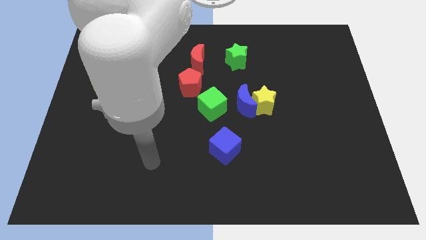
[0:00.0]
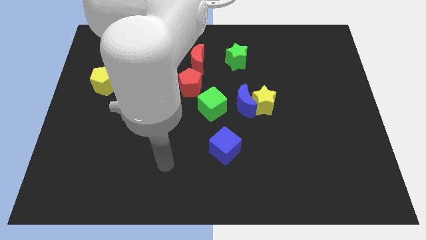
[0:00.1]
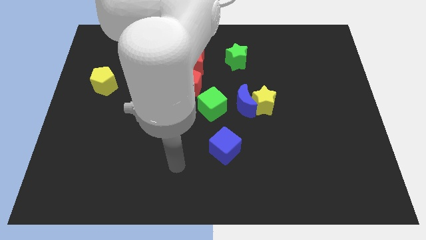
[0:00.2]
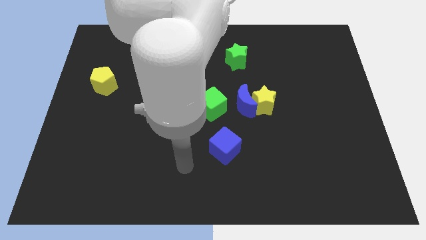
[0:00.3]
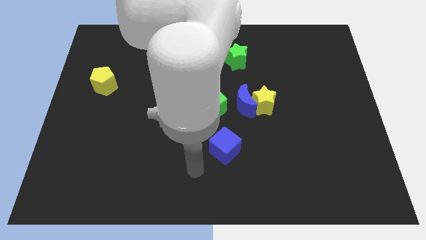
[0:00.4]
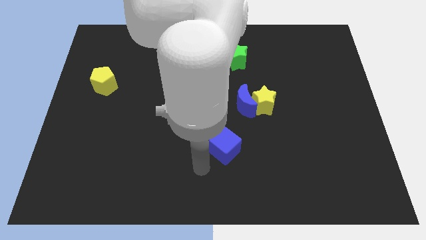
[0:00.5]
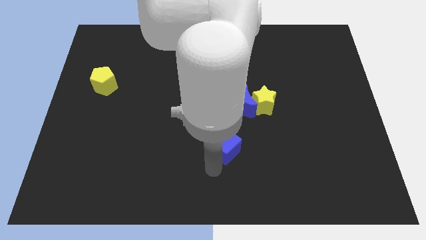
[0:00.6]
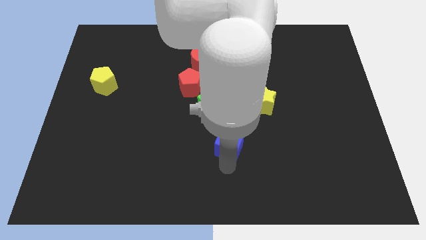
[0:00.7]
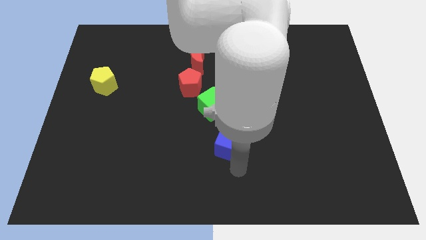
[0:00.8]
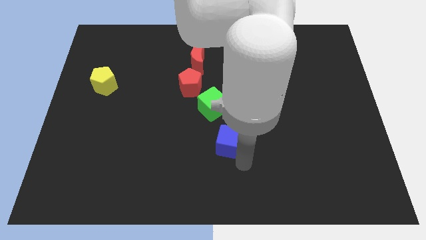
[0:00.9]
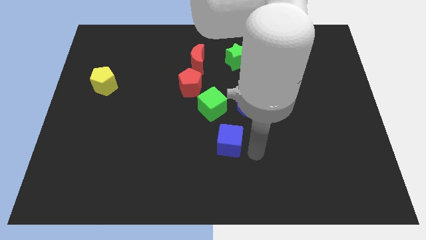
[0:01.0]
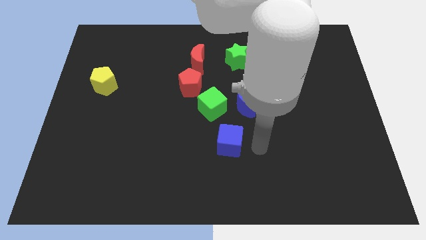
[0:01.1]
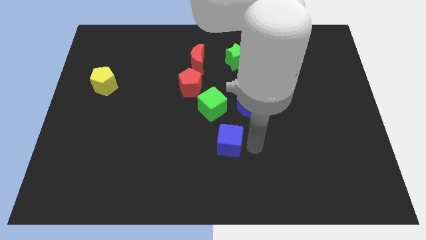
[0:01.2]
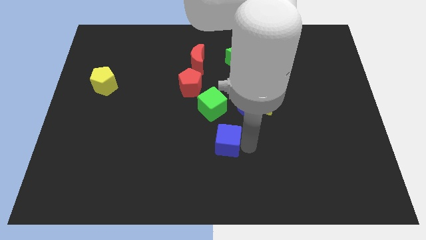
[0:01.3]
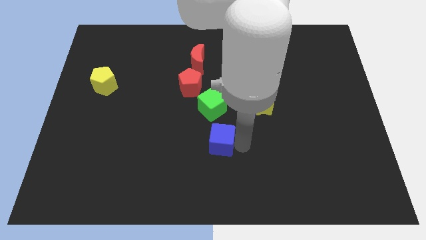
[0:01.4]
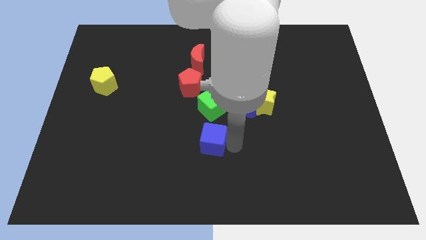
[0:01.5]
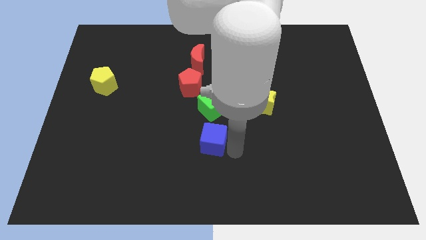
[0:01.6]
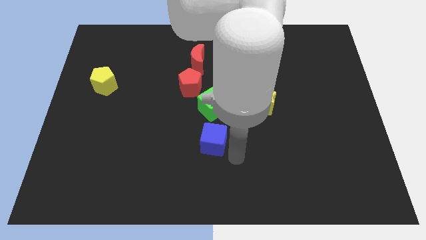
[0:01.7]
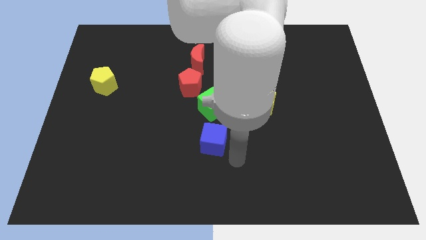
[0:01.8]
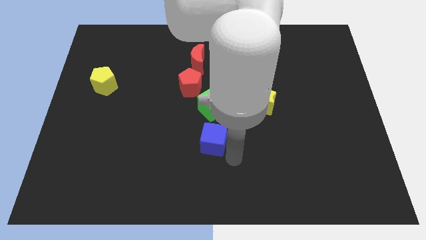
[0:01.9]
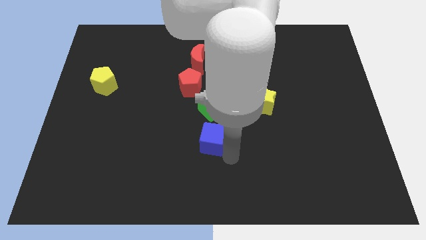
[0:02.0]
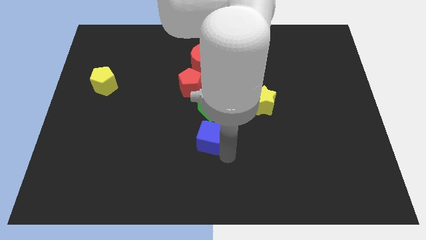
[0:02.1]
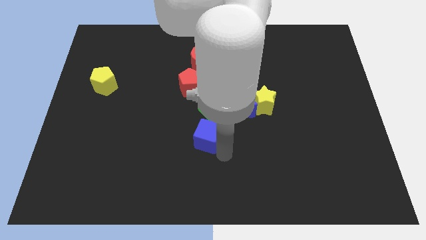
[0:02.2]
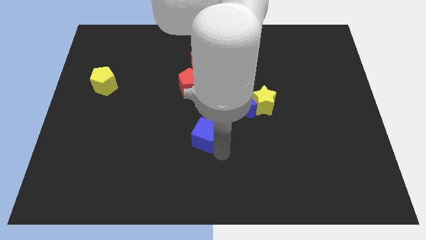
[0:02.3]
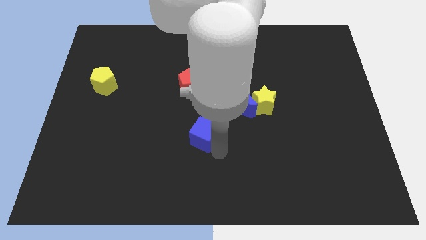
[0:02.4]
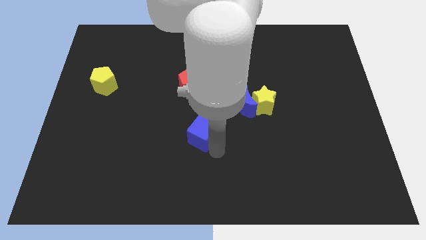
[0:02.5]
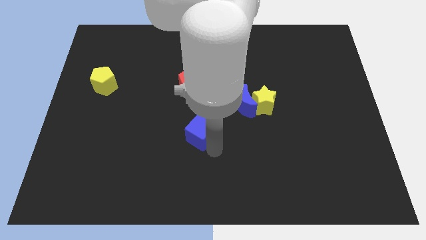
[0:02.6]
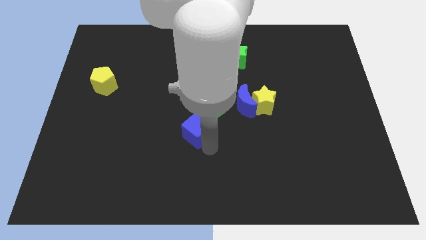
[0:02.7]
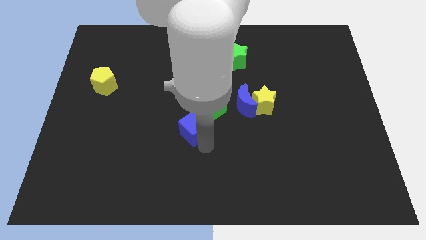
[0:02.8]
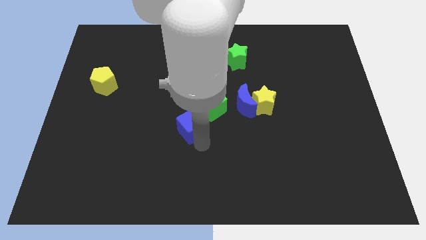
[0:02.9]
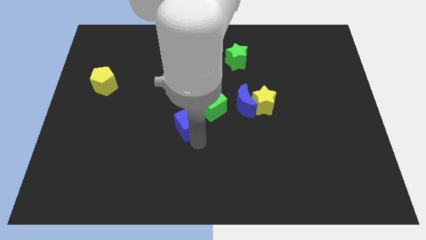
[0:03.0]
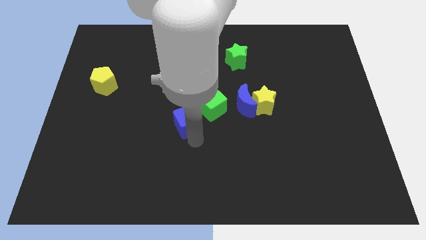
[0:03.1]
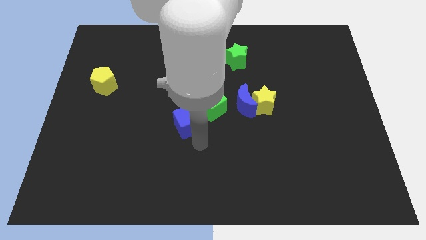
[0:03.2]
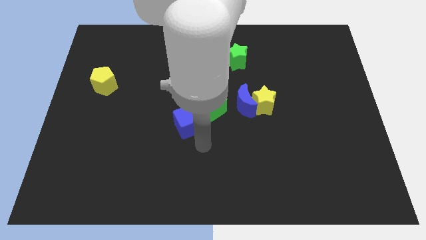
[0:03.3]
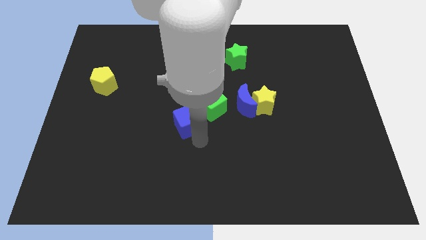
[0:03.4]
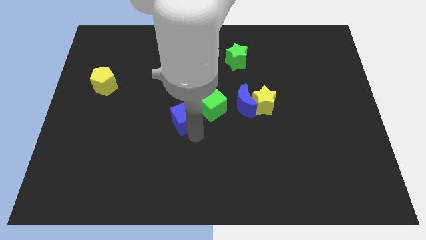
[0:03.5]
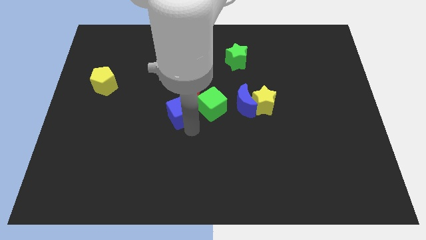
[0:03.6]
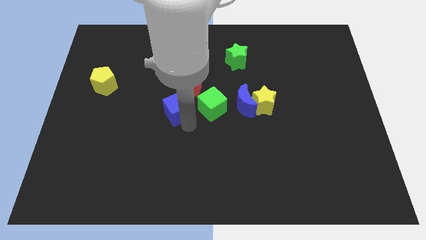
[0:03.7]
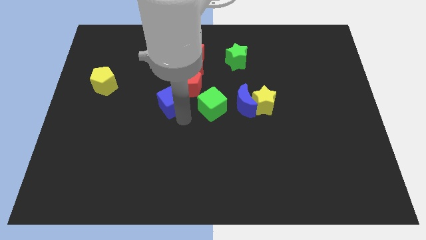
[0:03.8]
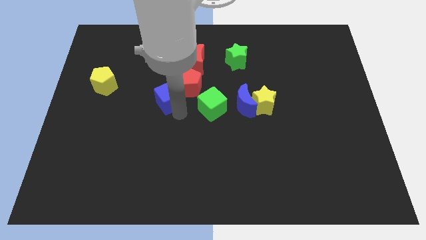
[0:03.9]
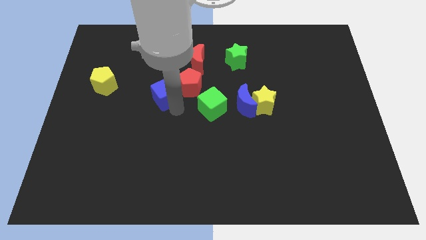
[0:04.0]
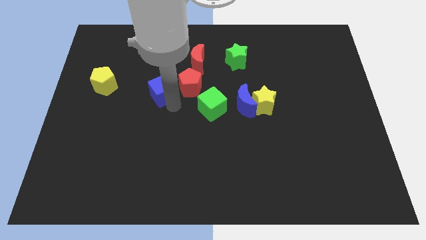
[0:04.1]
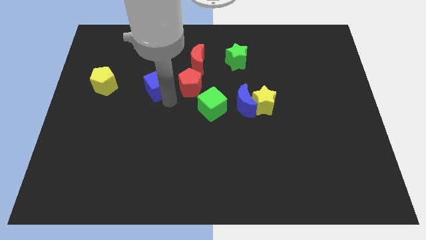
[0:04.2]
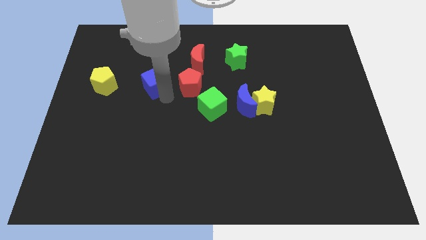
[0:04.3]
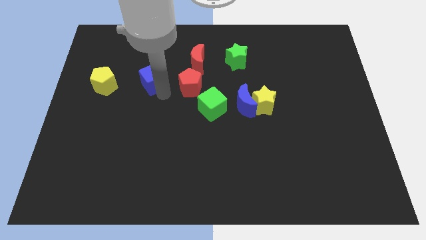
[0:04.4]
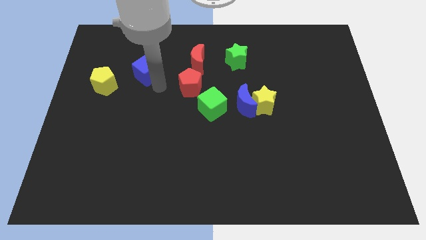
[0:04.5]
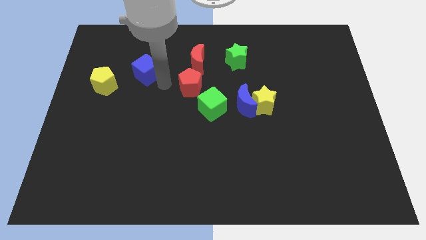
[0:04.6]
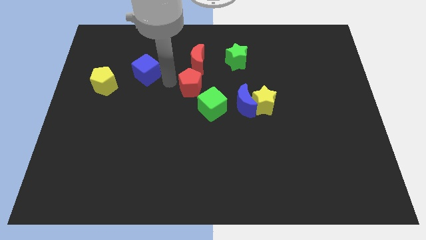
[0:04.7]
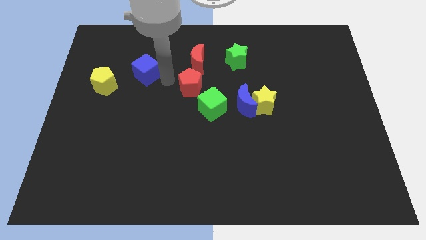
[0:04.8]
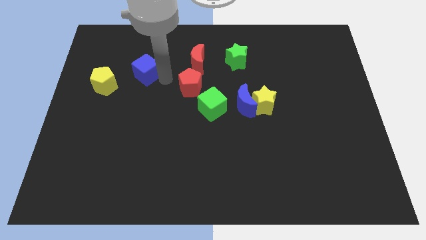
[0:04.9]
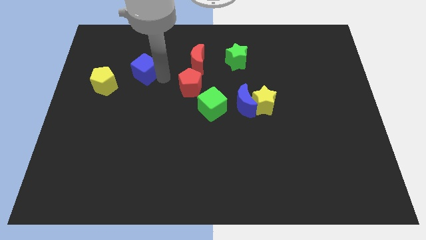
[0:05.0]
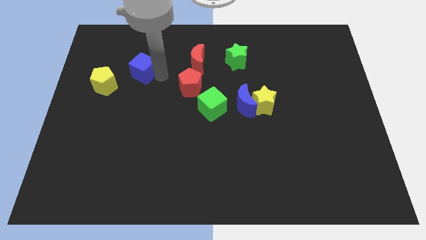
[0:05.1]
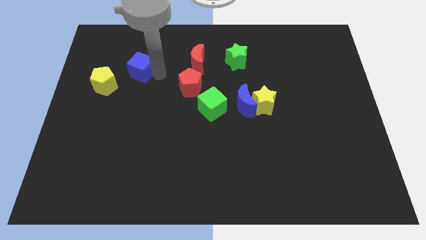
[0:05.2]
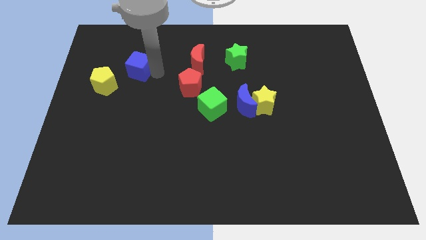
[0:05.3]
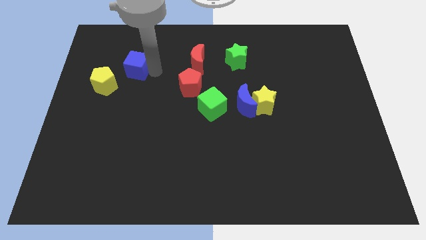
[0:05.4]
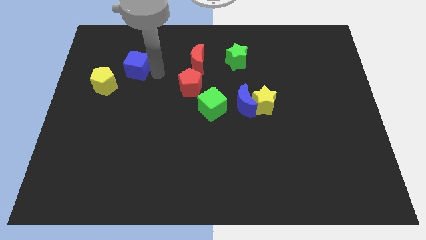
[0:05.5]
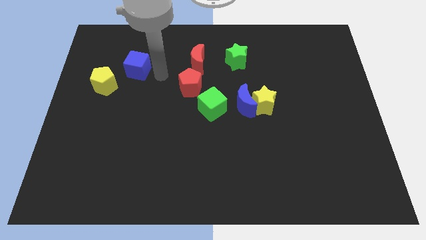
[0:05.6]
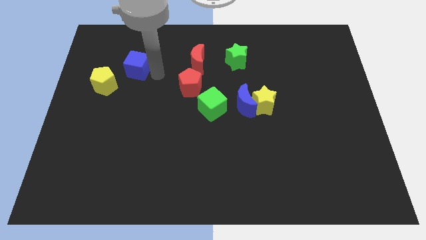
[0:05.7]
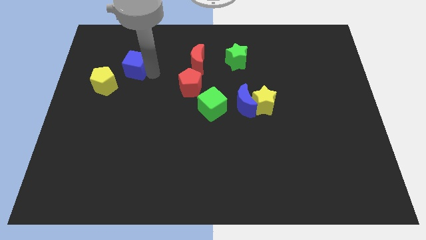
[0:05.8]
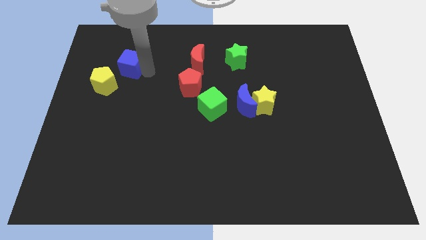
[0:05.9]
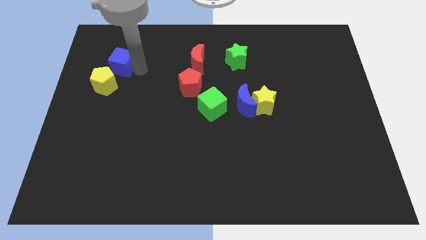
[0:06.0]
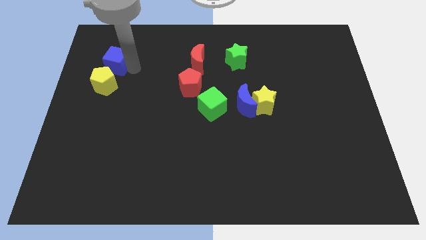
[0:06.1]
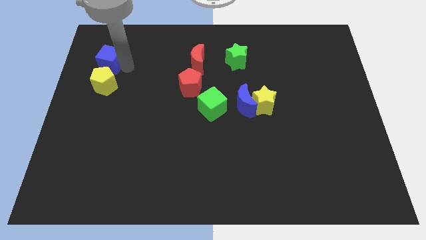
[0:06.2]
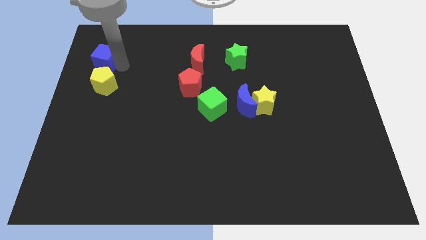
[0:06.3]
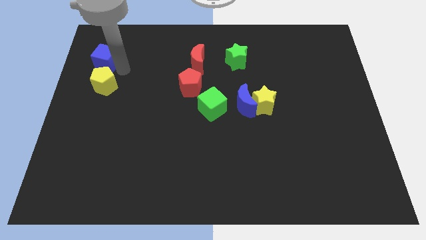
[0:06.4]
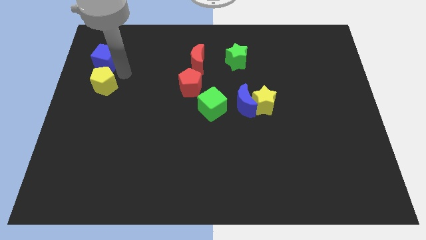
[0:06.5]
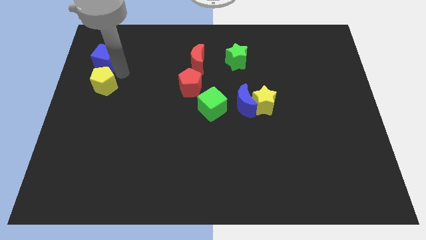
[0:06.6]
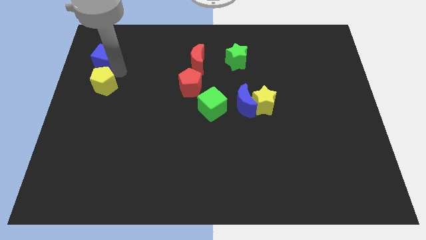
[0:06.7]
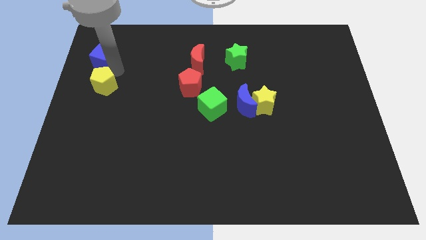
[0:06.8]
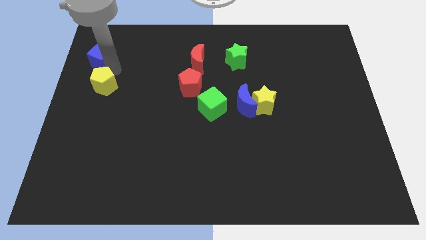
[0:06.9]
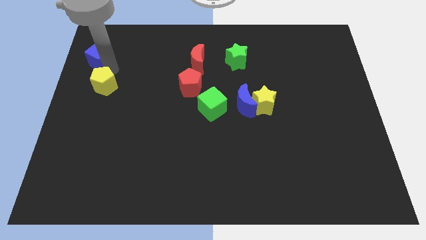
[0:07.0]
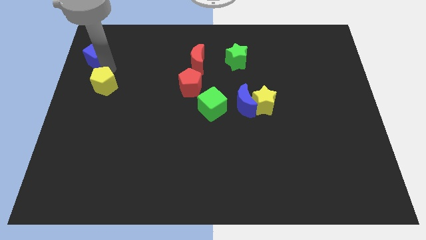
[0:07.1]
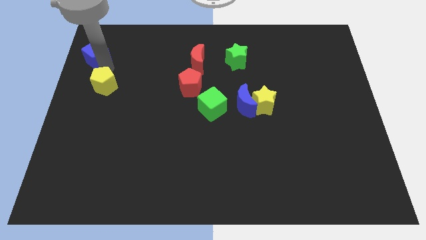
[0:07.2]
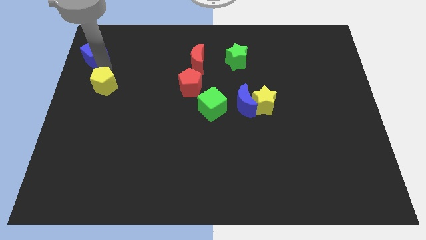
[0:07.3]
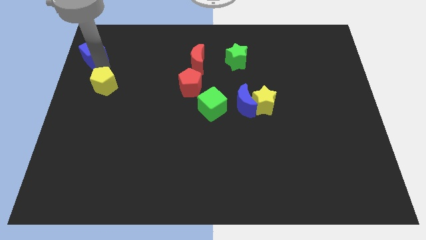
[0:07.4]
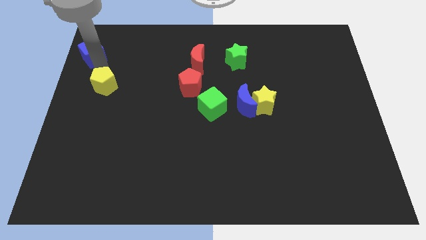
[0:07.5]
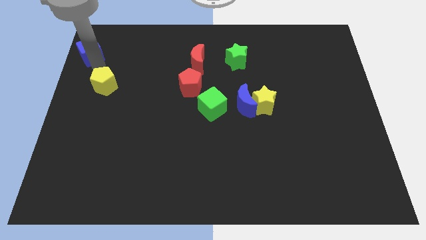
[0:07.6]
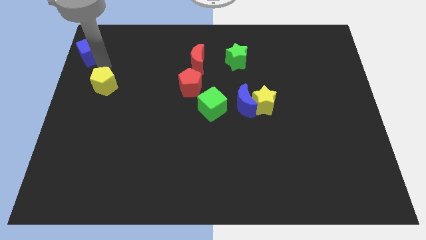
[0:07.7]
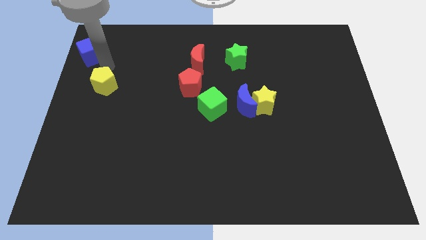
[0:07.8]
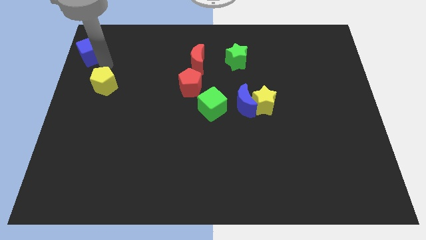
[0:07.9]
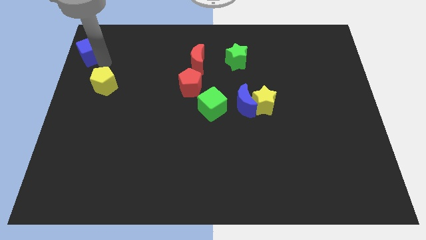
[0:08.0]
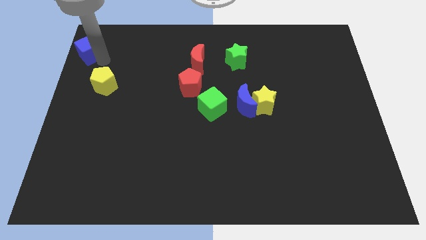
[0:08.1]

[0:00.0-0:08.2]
slide the blue cube to the top left corner
